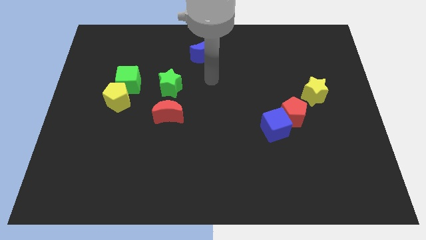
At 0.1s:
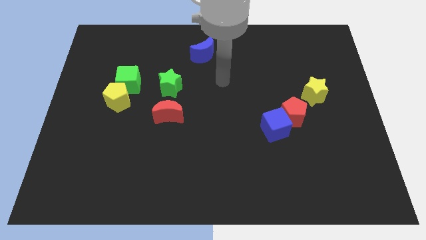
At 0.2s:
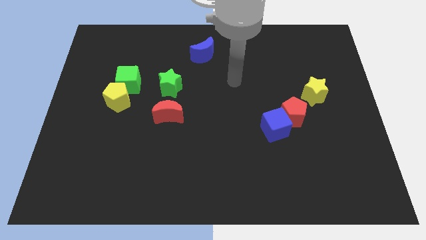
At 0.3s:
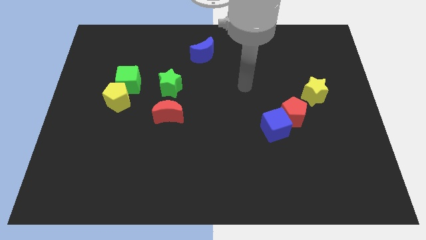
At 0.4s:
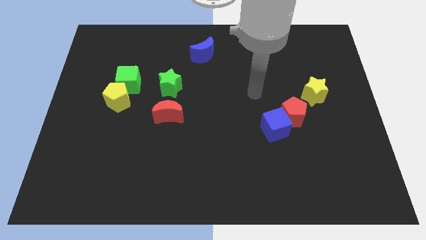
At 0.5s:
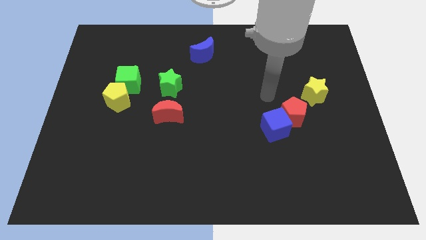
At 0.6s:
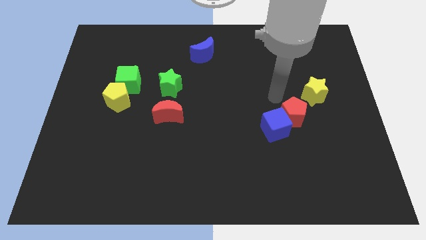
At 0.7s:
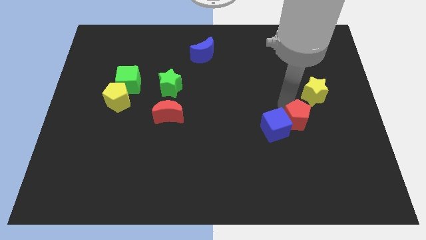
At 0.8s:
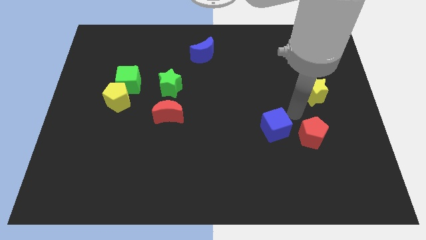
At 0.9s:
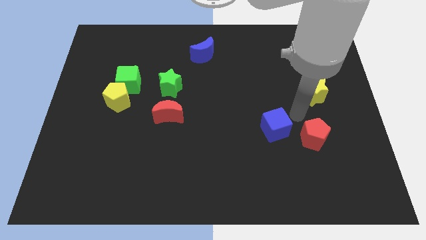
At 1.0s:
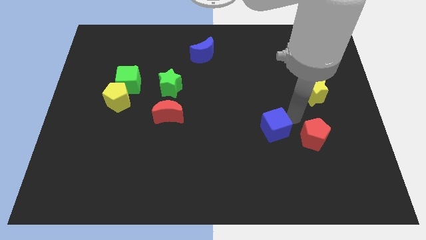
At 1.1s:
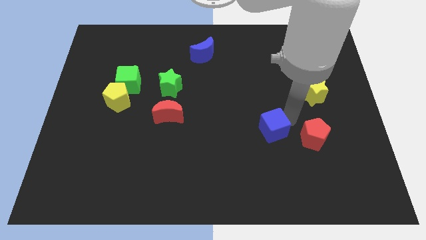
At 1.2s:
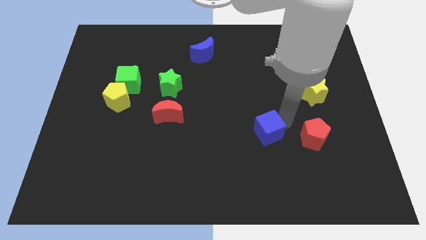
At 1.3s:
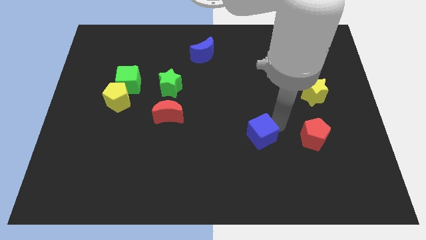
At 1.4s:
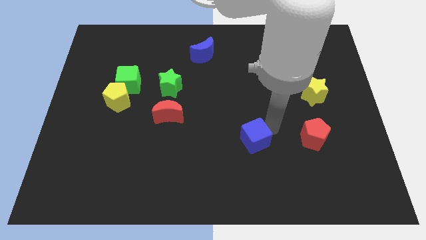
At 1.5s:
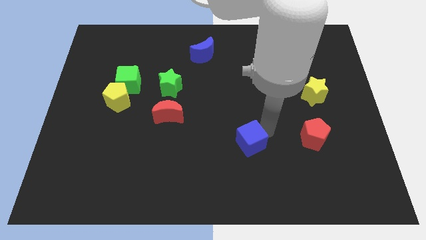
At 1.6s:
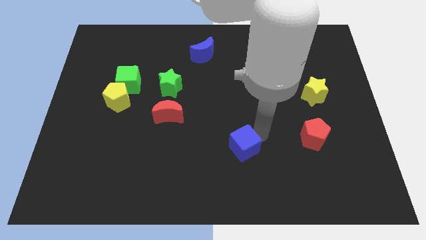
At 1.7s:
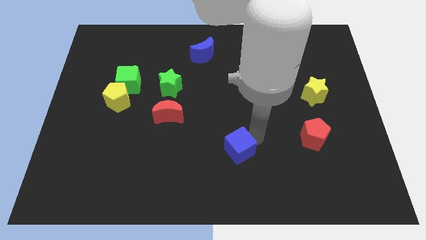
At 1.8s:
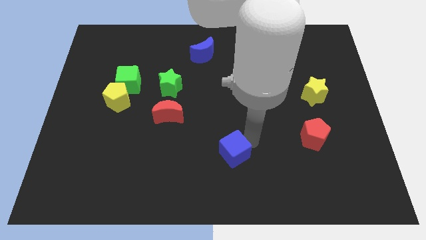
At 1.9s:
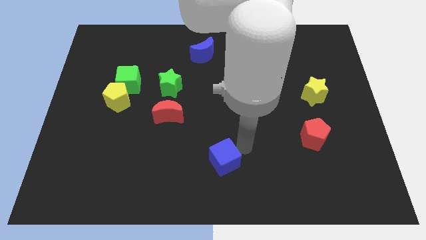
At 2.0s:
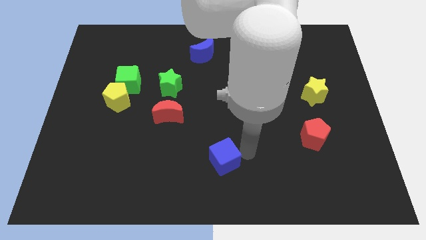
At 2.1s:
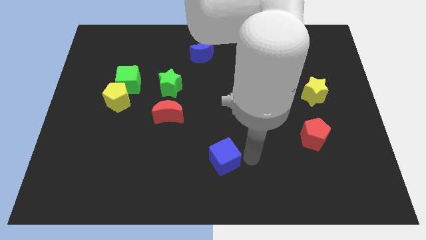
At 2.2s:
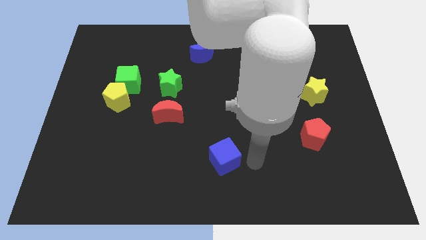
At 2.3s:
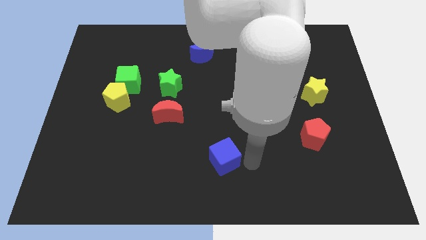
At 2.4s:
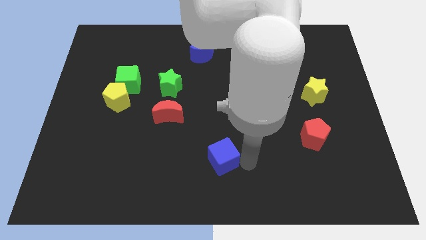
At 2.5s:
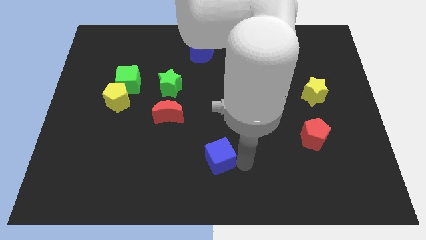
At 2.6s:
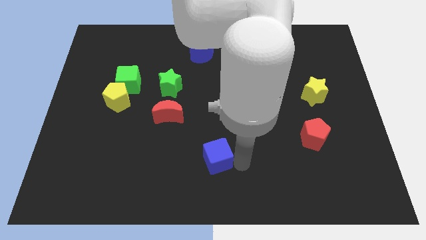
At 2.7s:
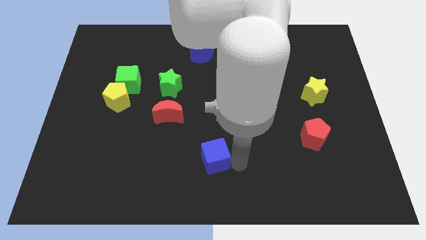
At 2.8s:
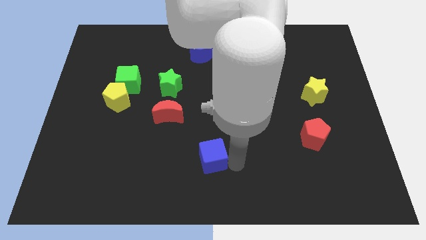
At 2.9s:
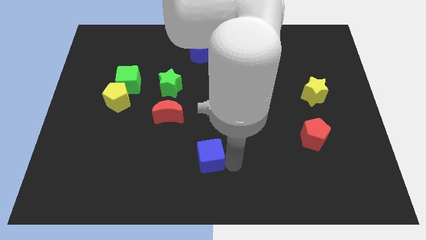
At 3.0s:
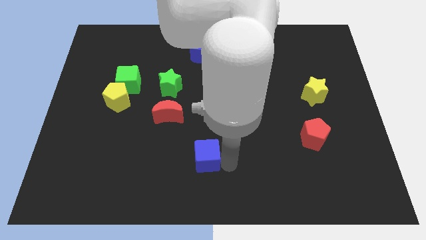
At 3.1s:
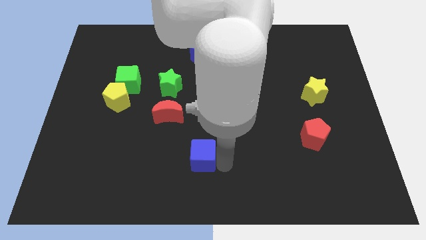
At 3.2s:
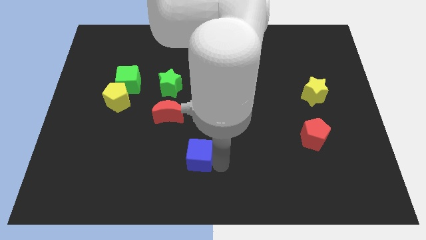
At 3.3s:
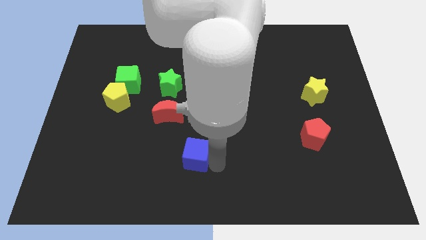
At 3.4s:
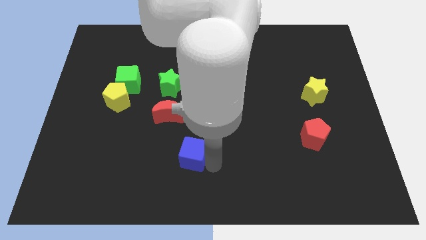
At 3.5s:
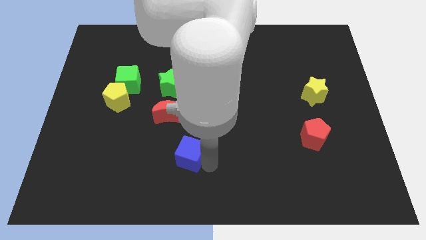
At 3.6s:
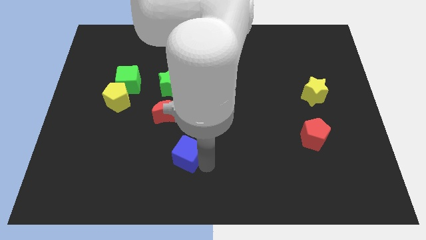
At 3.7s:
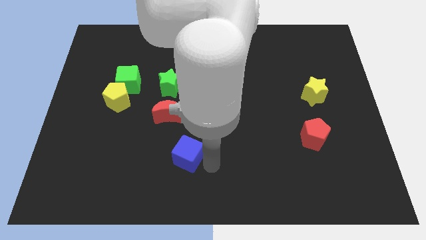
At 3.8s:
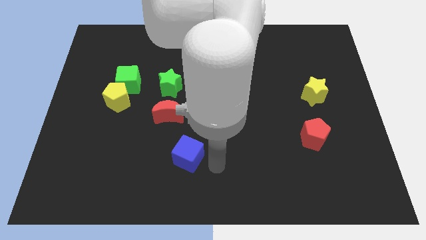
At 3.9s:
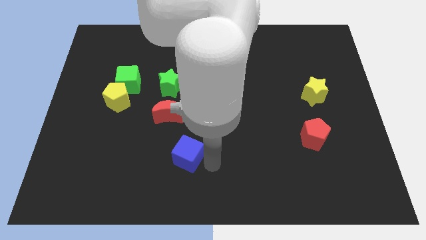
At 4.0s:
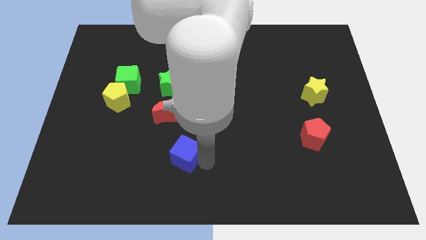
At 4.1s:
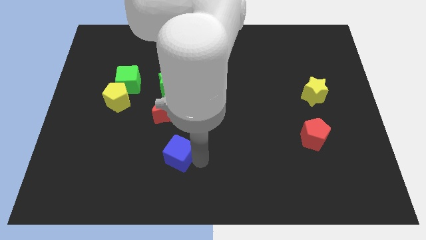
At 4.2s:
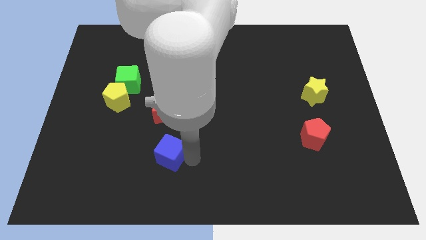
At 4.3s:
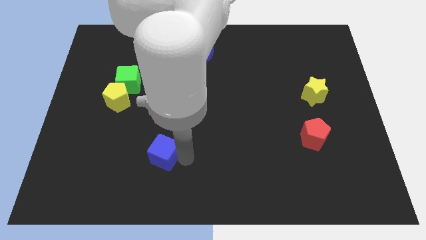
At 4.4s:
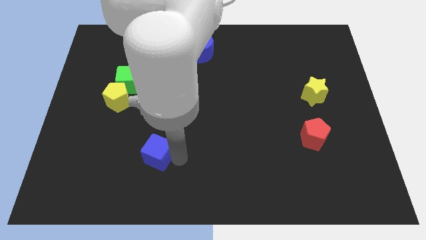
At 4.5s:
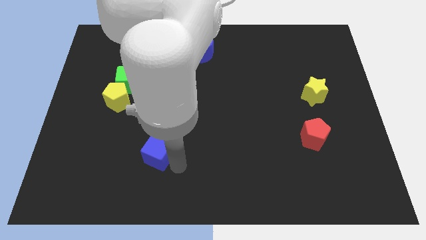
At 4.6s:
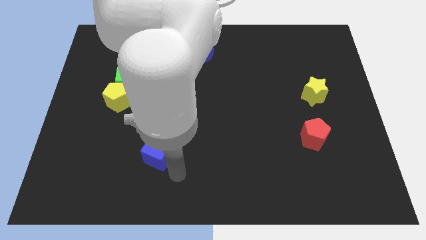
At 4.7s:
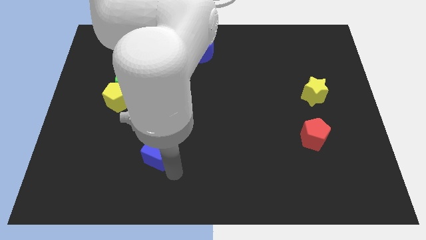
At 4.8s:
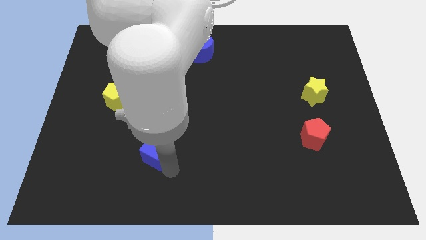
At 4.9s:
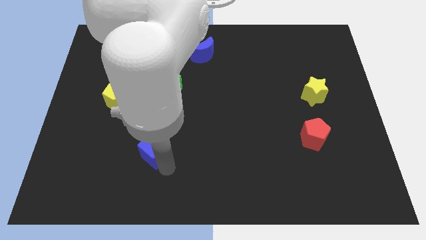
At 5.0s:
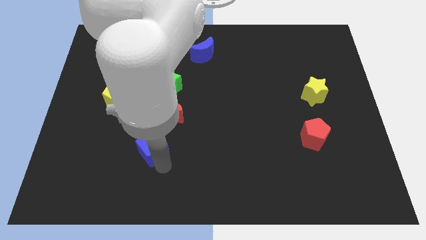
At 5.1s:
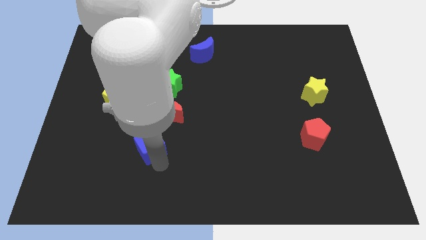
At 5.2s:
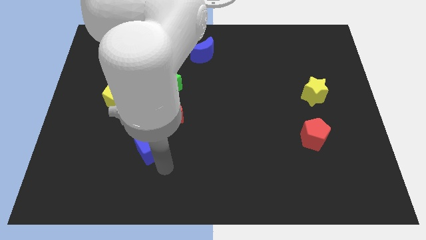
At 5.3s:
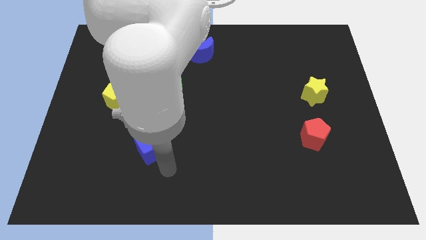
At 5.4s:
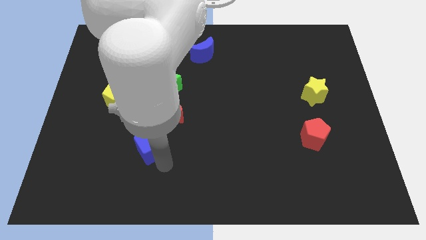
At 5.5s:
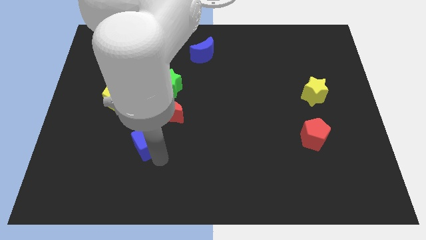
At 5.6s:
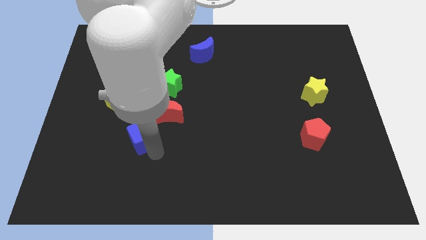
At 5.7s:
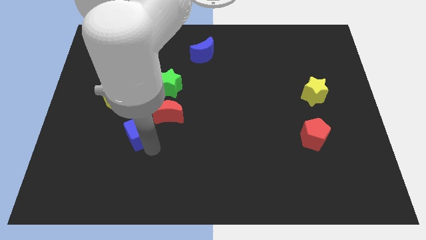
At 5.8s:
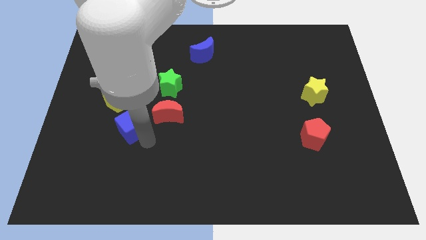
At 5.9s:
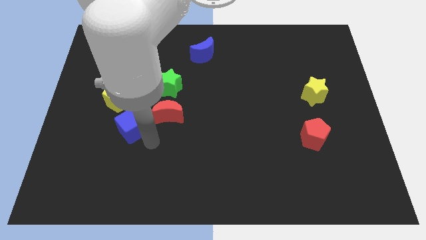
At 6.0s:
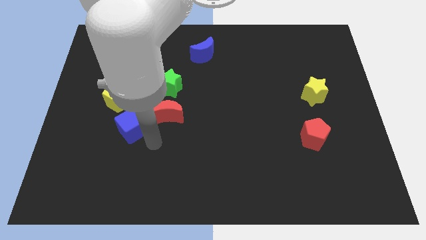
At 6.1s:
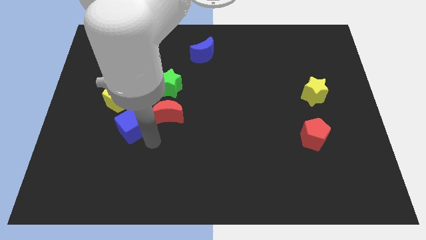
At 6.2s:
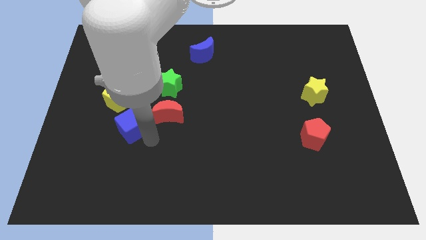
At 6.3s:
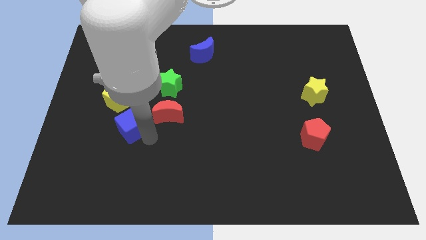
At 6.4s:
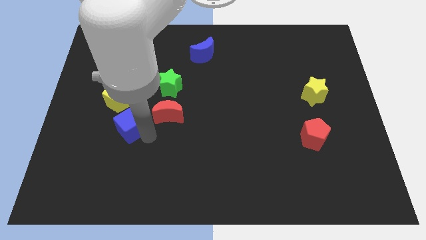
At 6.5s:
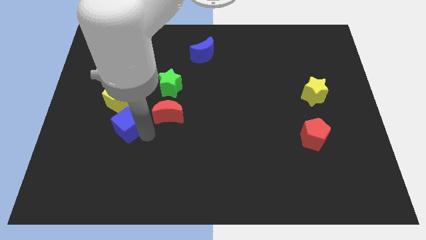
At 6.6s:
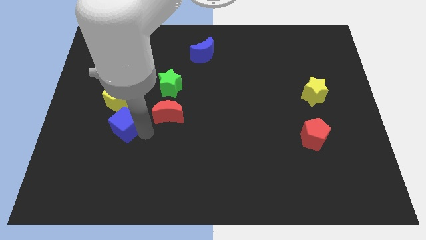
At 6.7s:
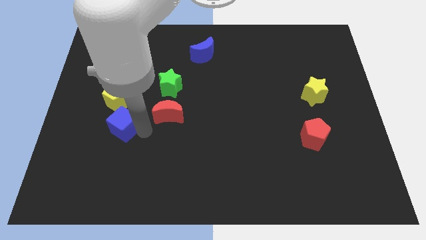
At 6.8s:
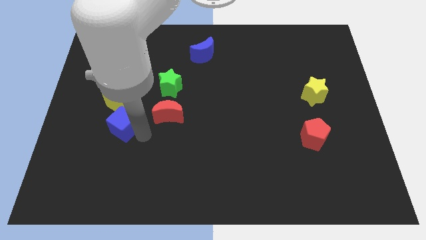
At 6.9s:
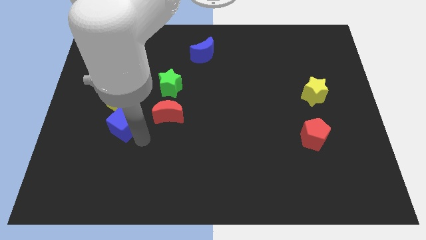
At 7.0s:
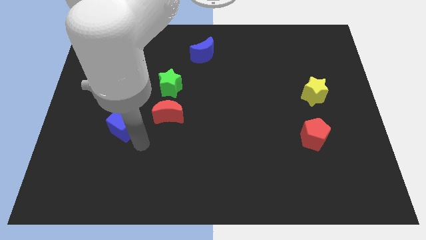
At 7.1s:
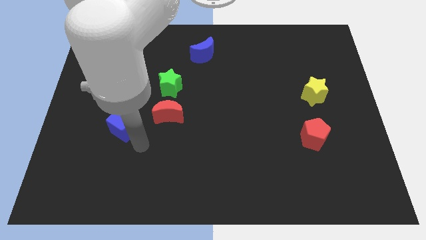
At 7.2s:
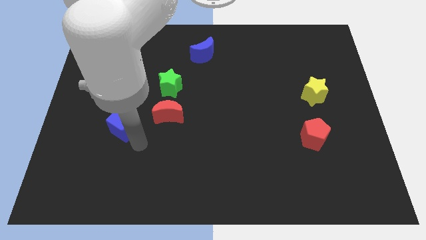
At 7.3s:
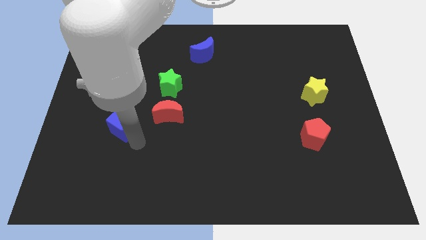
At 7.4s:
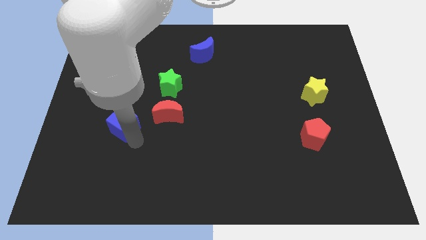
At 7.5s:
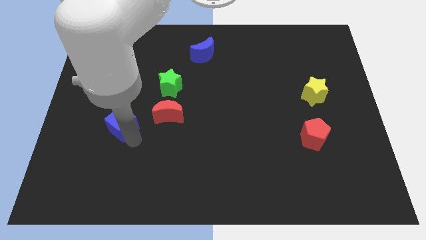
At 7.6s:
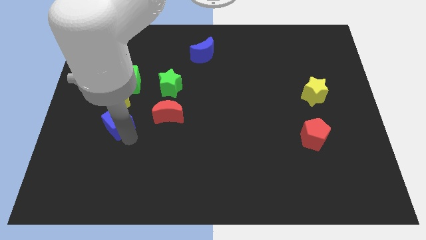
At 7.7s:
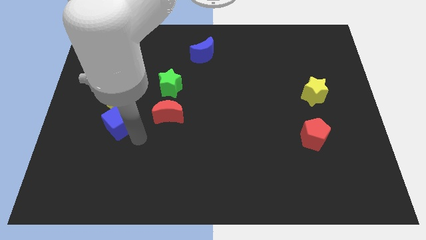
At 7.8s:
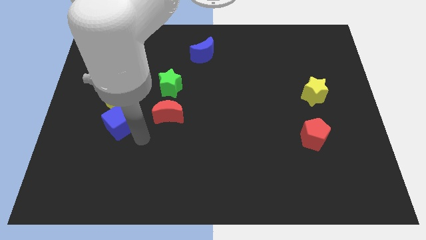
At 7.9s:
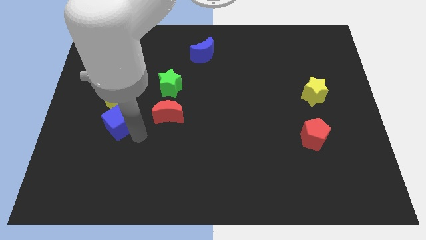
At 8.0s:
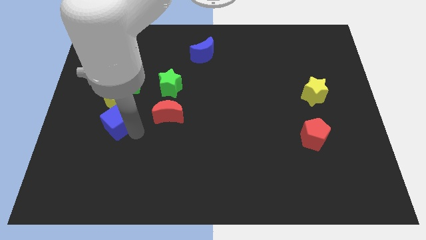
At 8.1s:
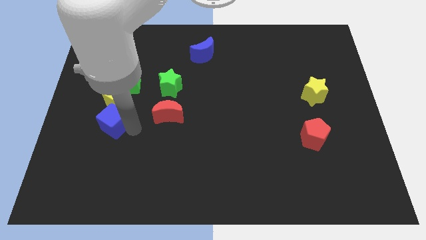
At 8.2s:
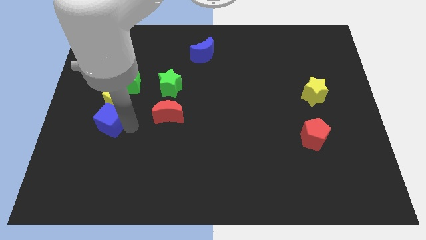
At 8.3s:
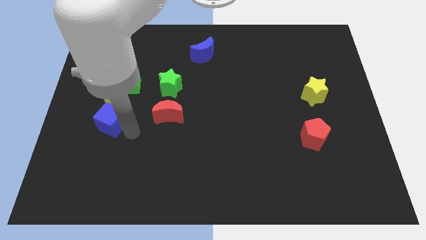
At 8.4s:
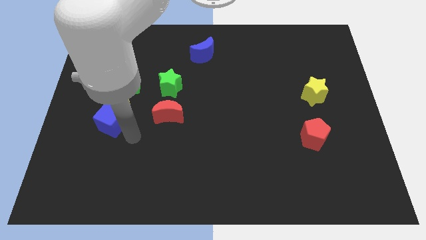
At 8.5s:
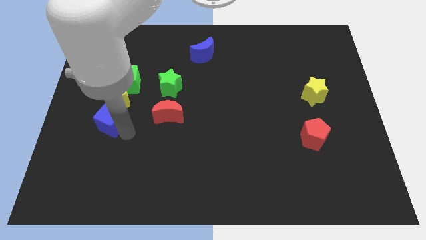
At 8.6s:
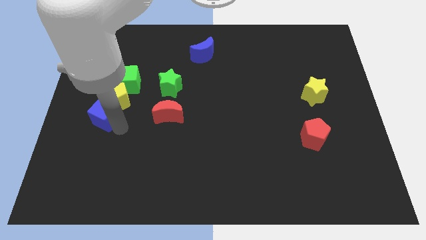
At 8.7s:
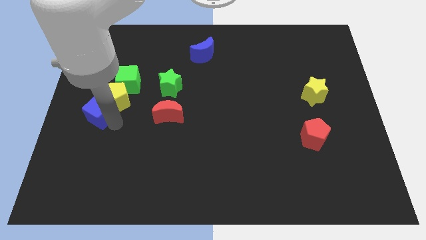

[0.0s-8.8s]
move the blue cube to the left side
